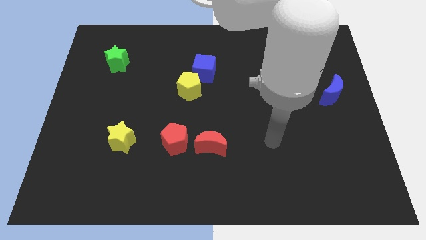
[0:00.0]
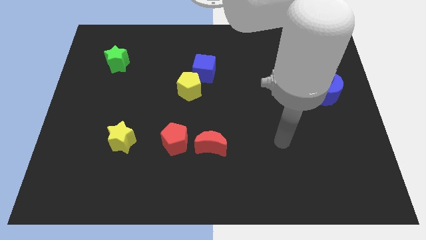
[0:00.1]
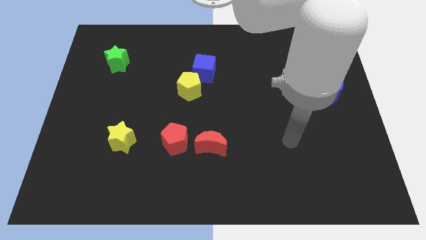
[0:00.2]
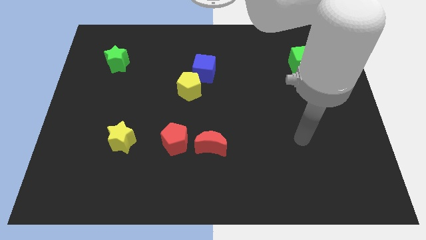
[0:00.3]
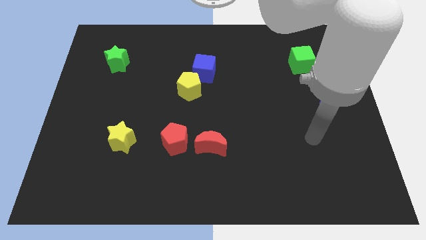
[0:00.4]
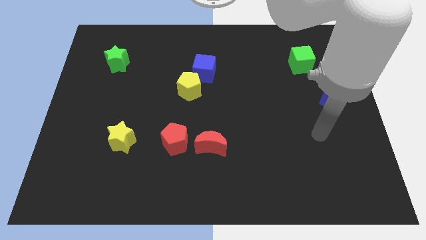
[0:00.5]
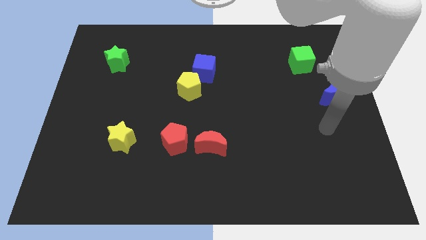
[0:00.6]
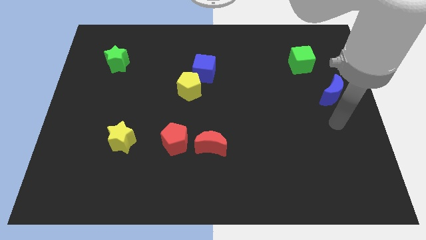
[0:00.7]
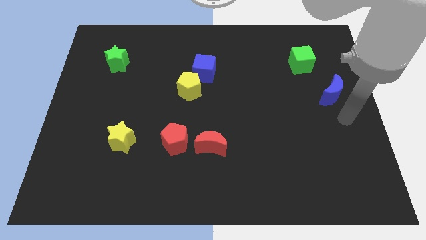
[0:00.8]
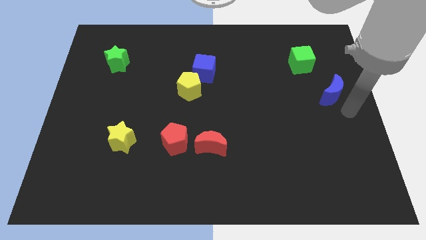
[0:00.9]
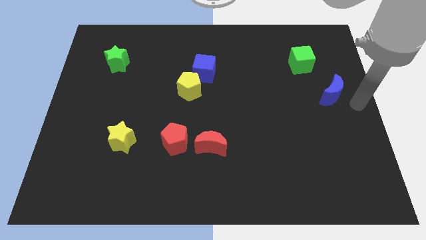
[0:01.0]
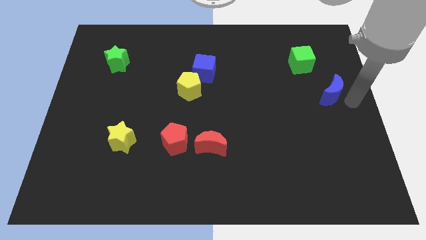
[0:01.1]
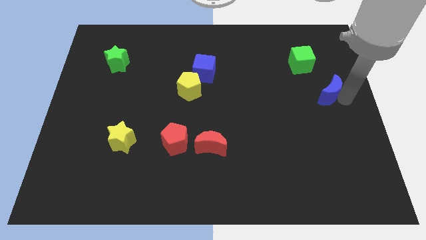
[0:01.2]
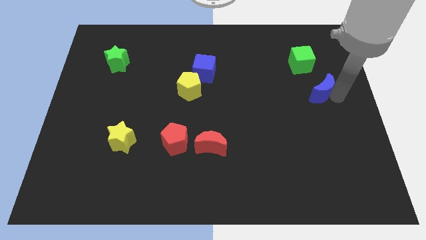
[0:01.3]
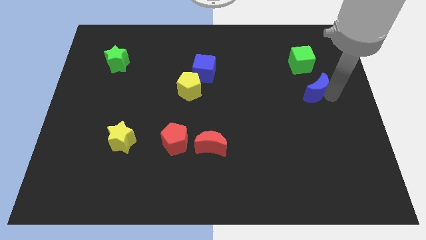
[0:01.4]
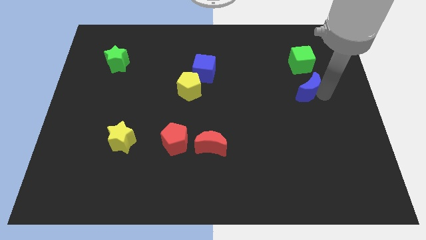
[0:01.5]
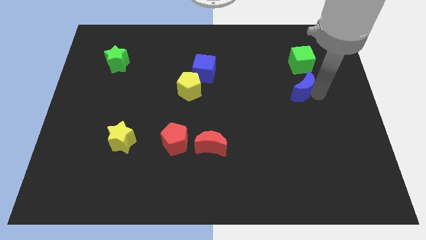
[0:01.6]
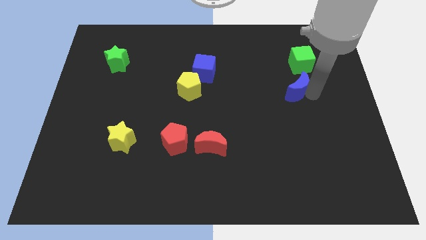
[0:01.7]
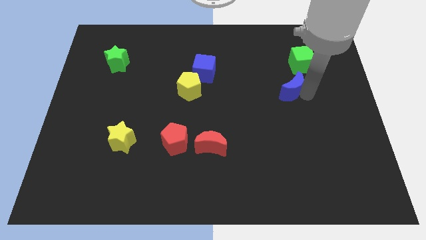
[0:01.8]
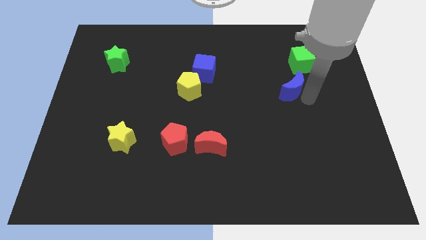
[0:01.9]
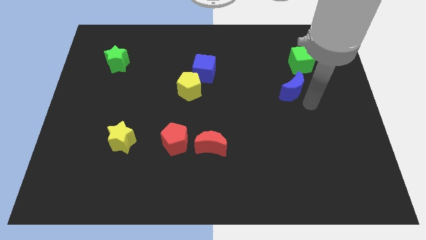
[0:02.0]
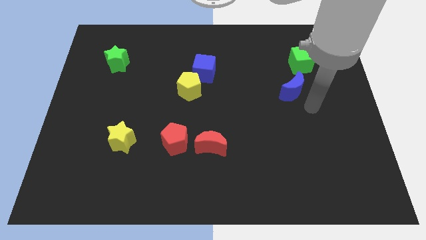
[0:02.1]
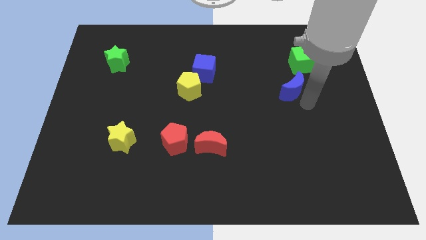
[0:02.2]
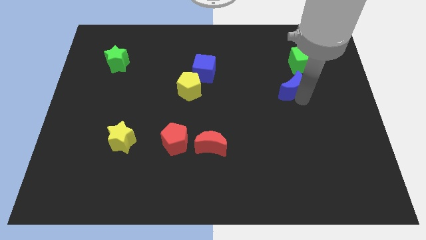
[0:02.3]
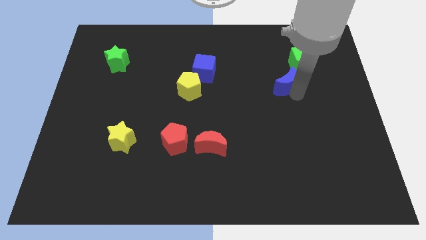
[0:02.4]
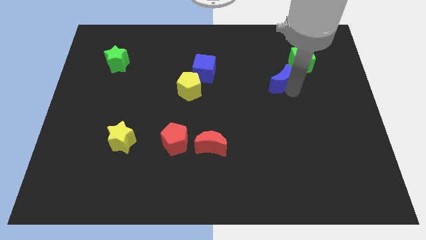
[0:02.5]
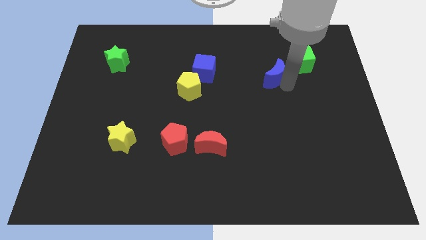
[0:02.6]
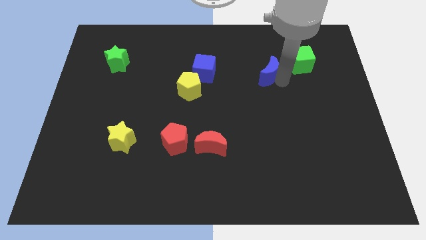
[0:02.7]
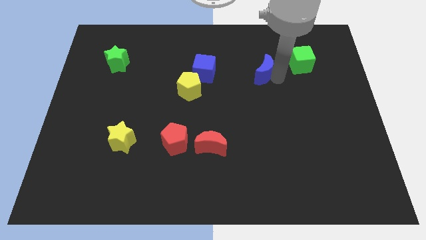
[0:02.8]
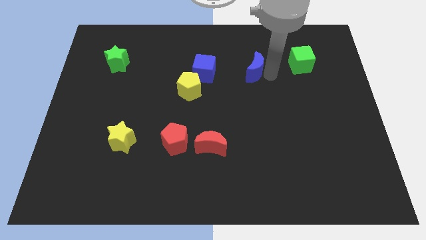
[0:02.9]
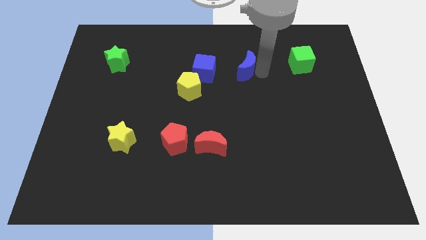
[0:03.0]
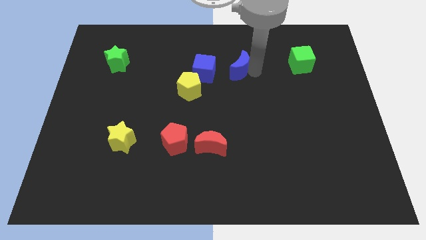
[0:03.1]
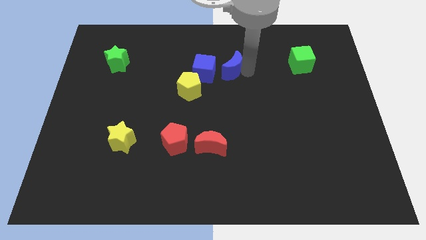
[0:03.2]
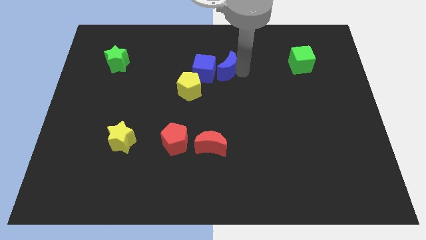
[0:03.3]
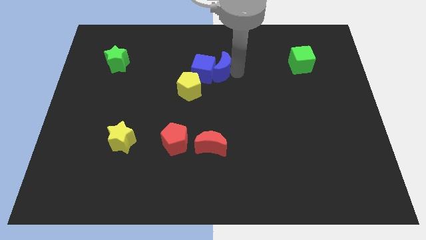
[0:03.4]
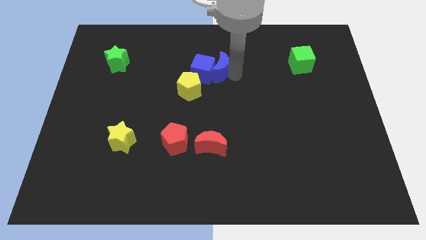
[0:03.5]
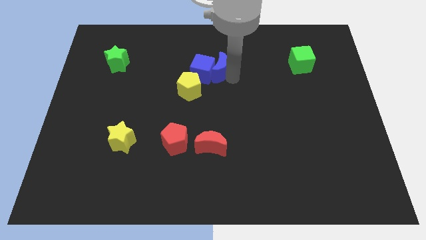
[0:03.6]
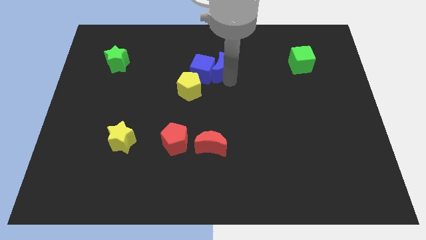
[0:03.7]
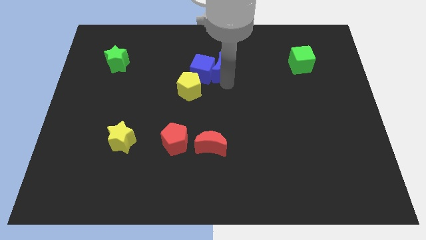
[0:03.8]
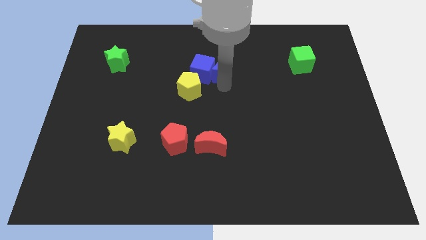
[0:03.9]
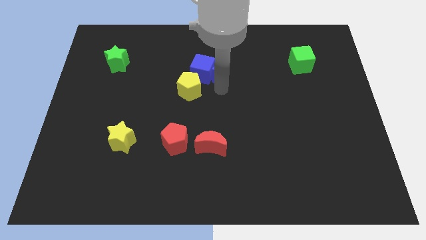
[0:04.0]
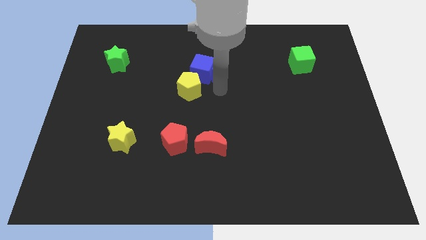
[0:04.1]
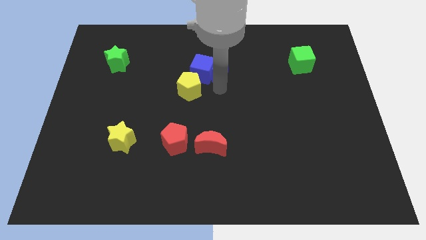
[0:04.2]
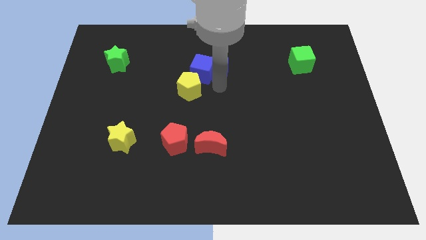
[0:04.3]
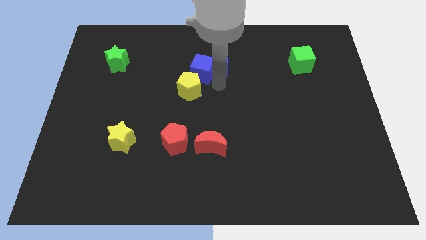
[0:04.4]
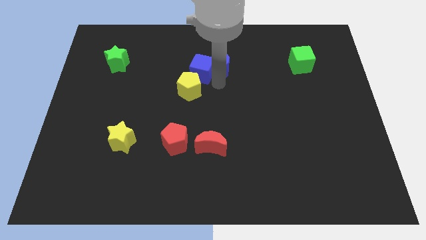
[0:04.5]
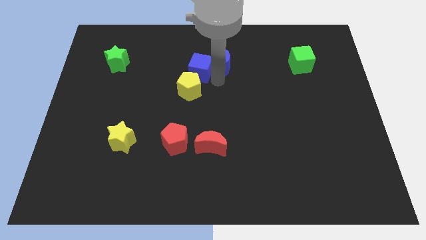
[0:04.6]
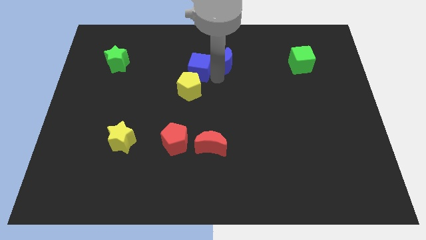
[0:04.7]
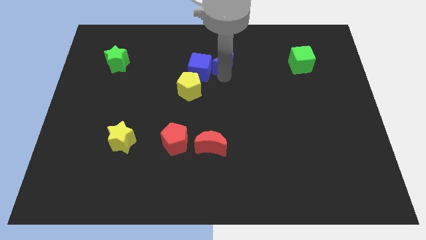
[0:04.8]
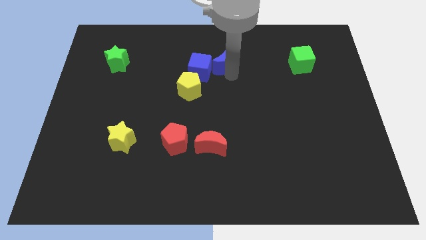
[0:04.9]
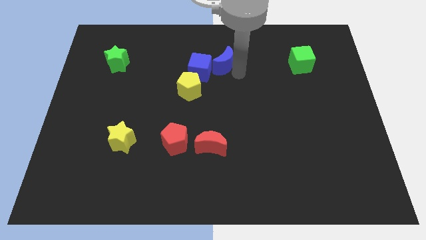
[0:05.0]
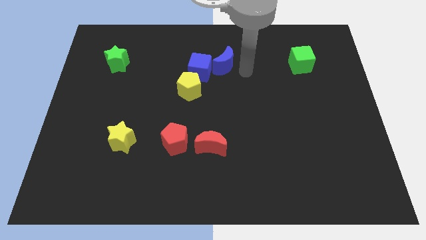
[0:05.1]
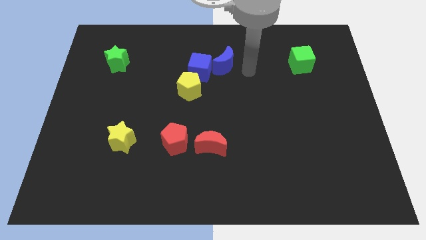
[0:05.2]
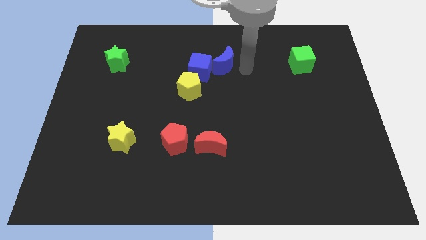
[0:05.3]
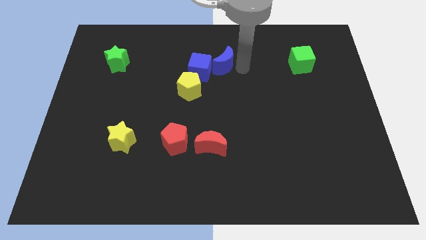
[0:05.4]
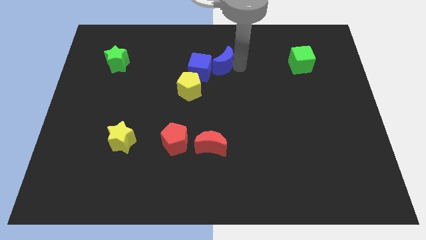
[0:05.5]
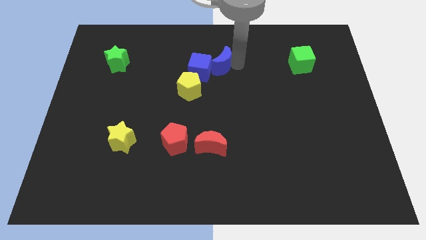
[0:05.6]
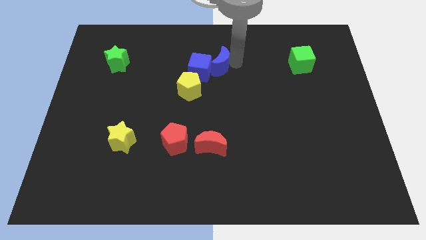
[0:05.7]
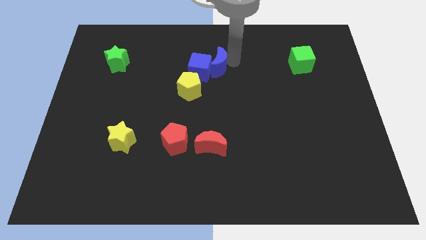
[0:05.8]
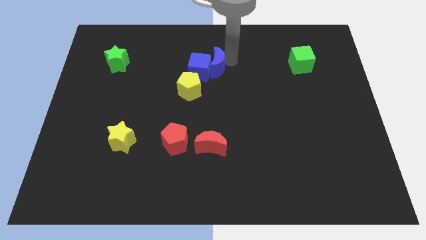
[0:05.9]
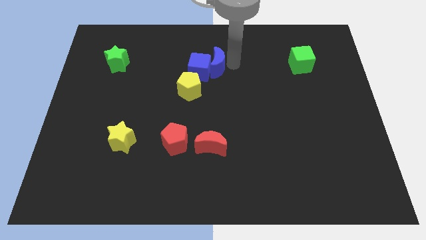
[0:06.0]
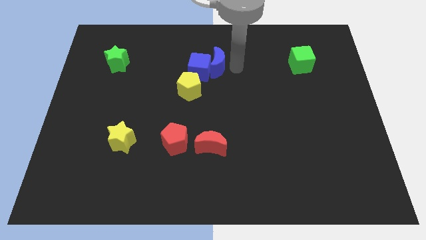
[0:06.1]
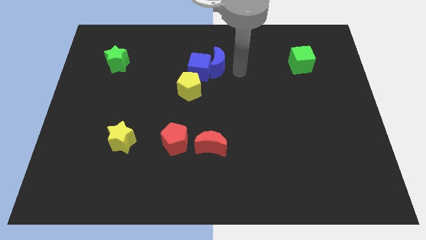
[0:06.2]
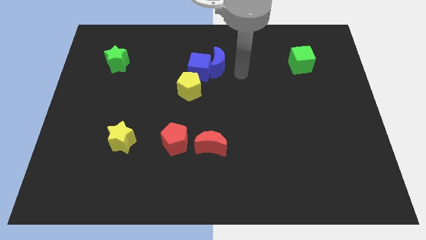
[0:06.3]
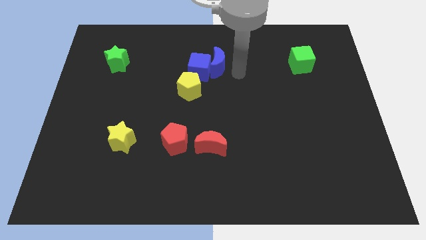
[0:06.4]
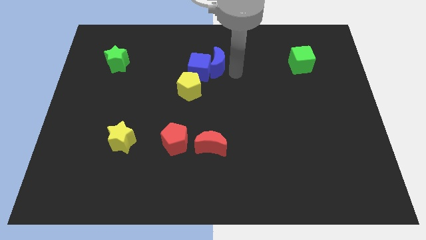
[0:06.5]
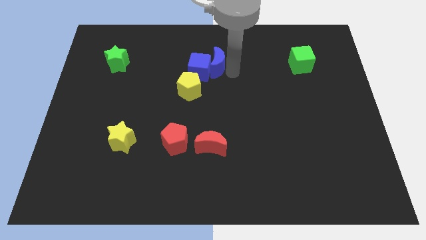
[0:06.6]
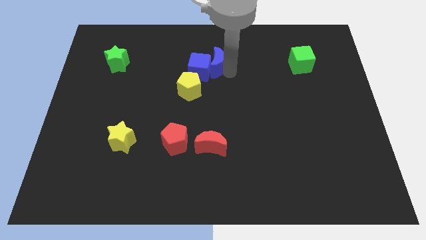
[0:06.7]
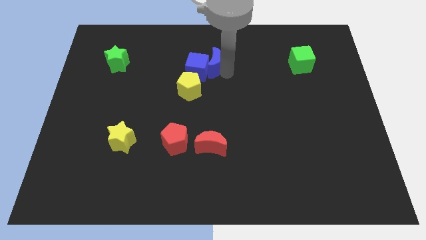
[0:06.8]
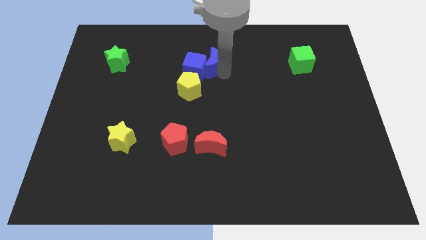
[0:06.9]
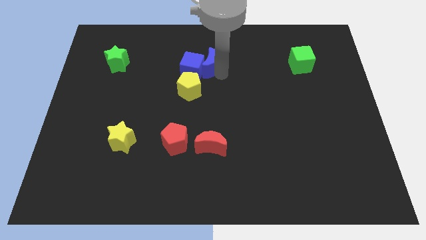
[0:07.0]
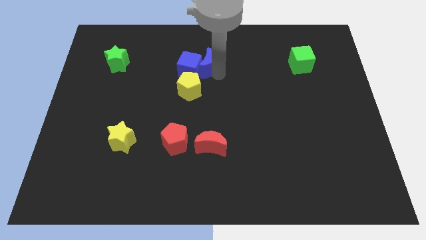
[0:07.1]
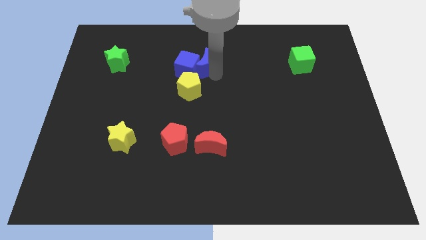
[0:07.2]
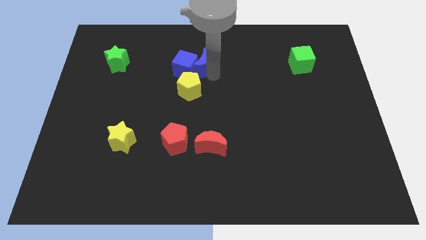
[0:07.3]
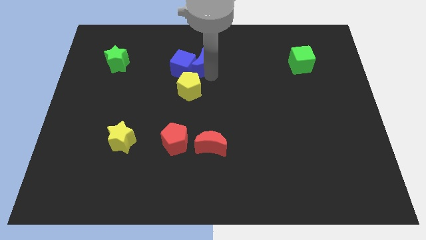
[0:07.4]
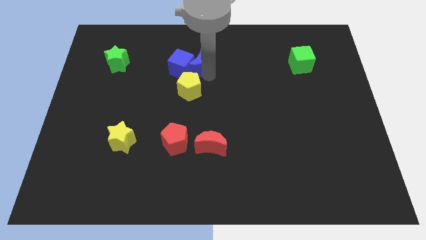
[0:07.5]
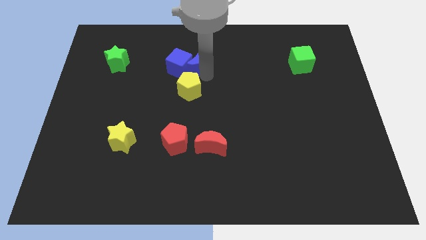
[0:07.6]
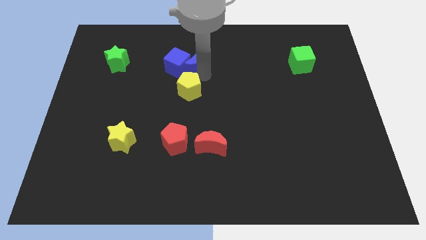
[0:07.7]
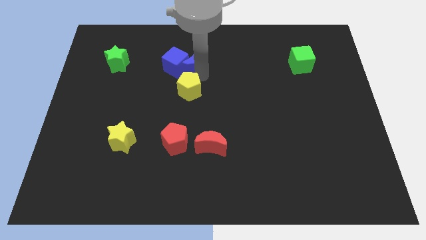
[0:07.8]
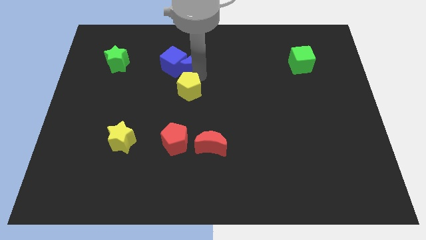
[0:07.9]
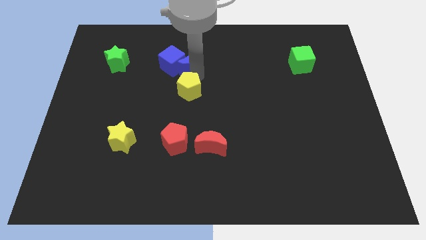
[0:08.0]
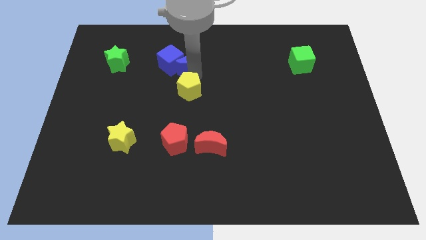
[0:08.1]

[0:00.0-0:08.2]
push the blue moon diagonally up and to the left of the yellow pentagon
